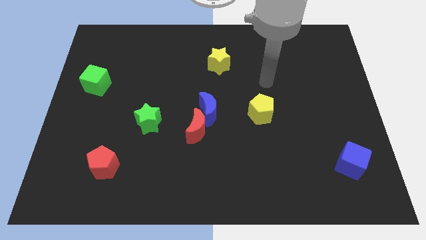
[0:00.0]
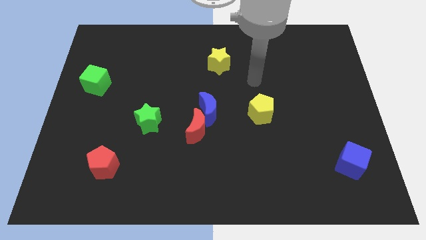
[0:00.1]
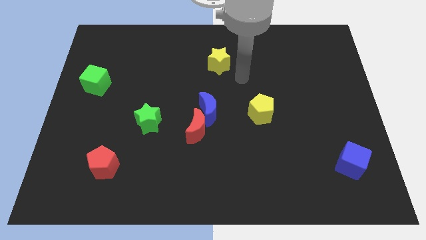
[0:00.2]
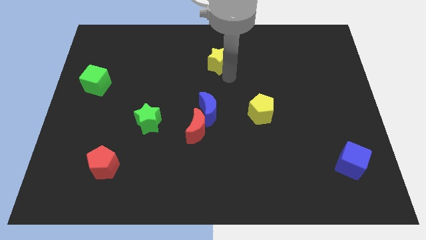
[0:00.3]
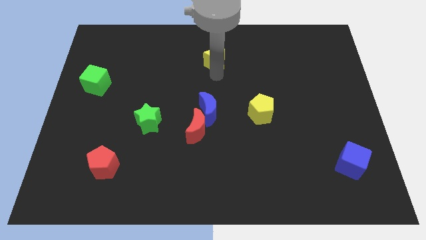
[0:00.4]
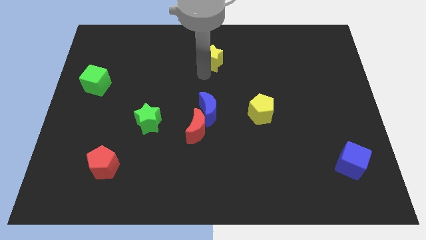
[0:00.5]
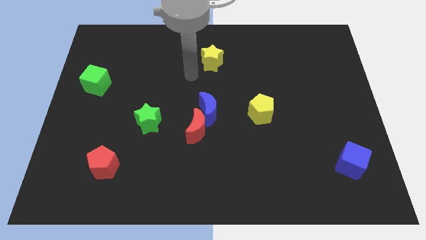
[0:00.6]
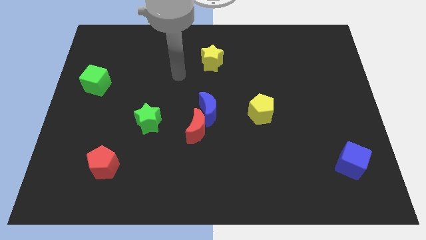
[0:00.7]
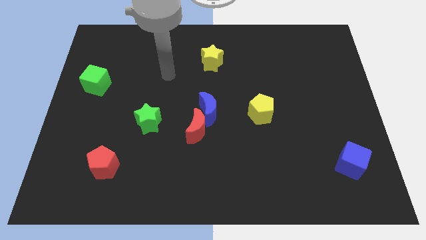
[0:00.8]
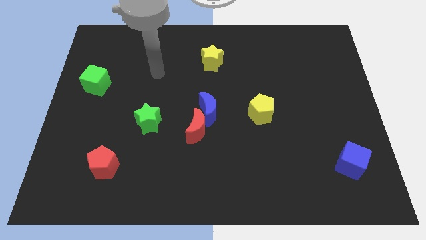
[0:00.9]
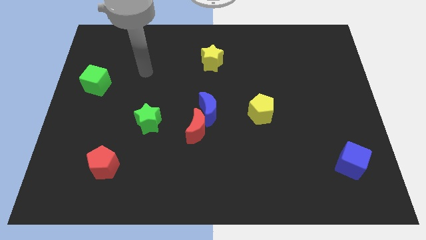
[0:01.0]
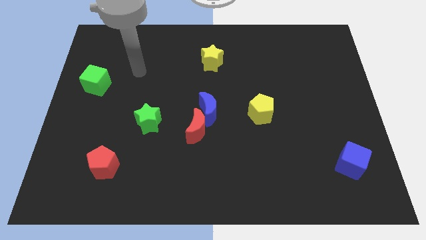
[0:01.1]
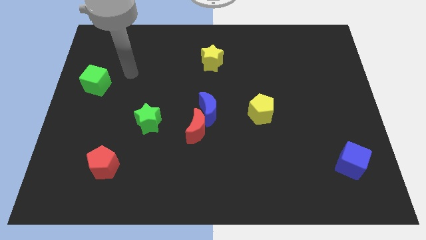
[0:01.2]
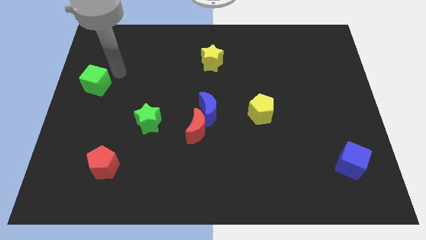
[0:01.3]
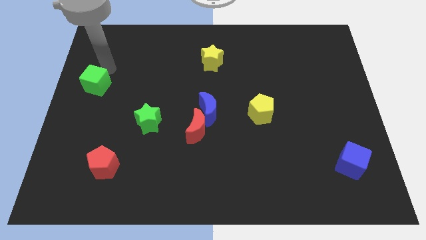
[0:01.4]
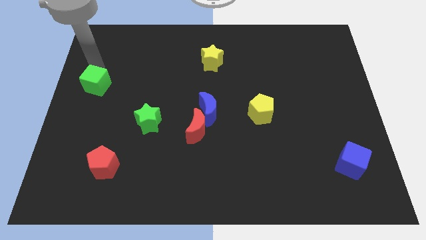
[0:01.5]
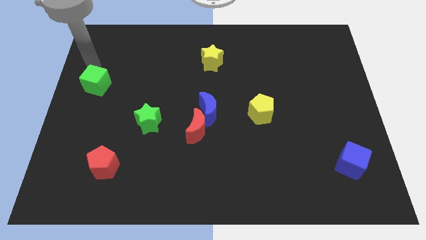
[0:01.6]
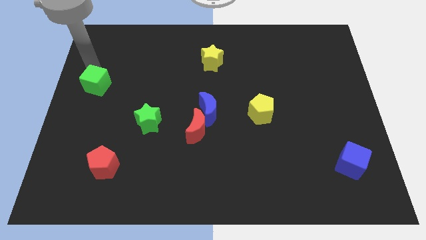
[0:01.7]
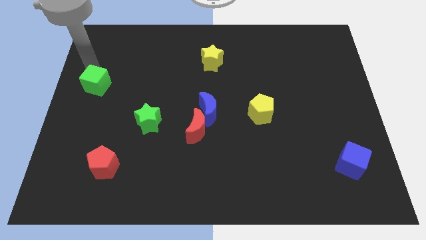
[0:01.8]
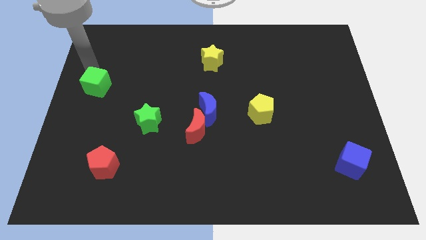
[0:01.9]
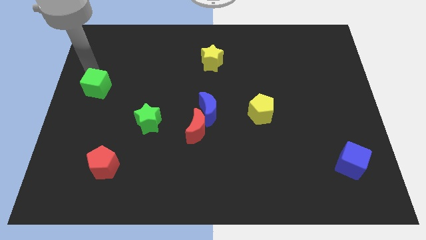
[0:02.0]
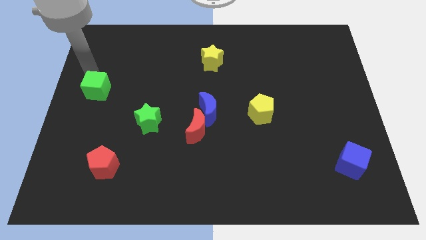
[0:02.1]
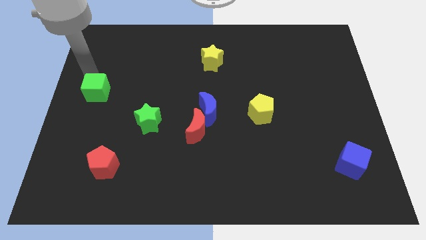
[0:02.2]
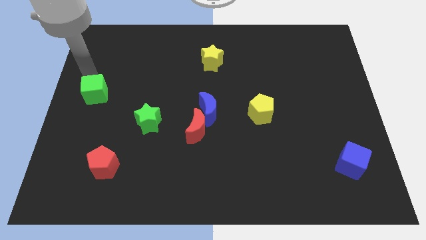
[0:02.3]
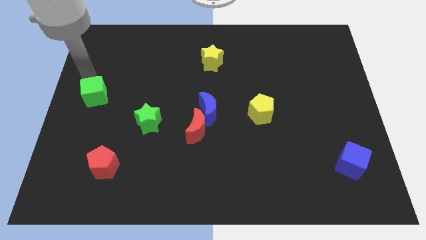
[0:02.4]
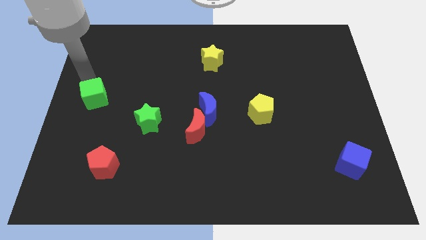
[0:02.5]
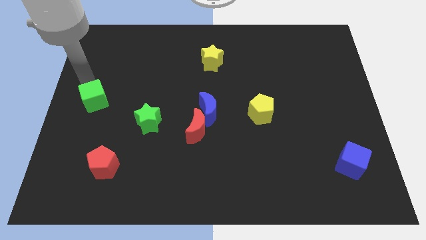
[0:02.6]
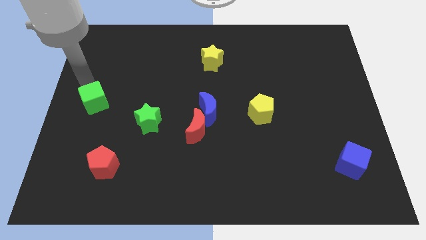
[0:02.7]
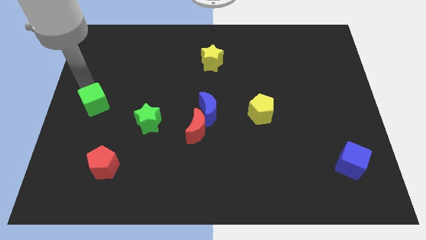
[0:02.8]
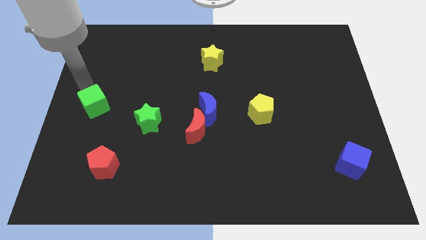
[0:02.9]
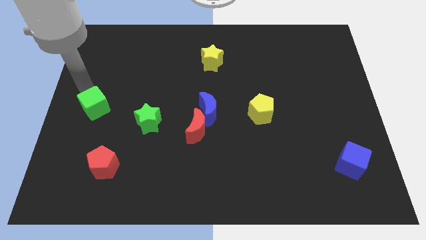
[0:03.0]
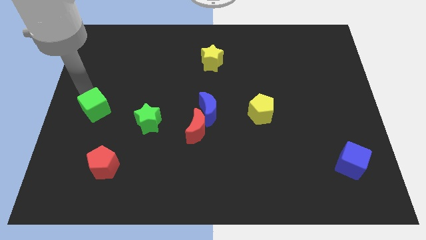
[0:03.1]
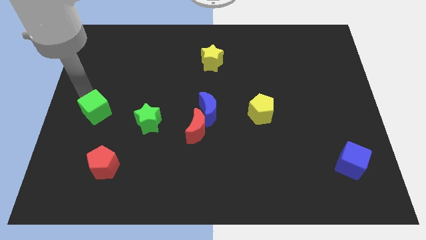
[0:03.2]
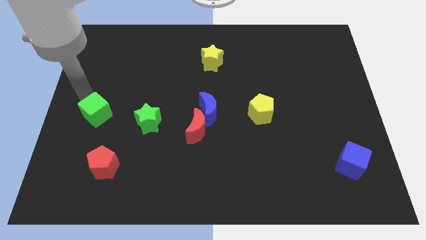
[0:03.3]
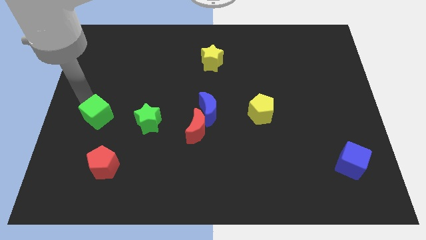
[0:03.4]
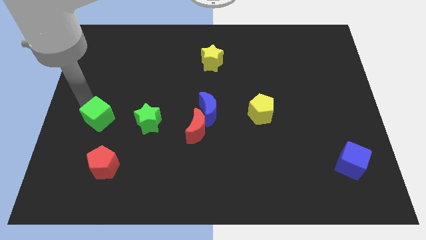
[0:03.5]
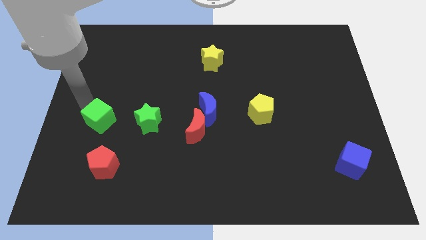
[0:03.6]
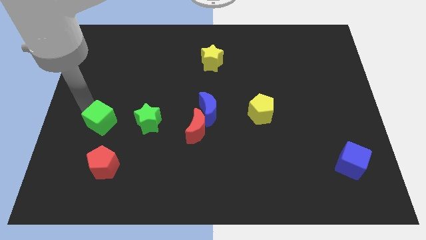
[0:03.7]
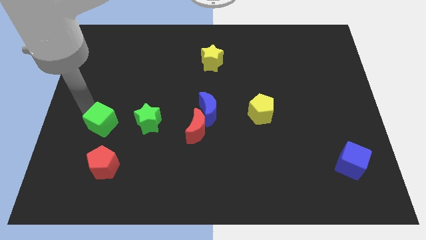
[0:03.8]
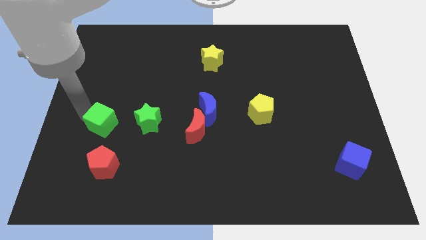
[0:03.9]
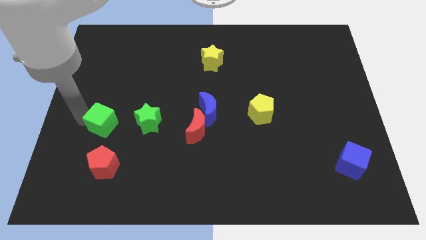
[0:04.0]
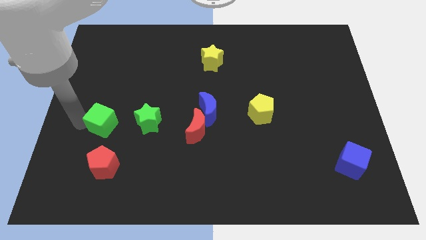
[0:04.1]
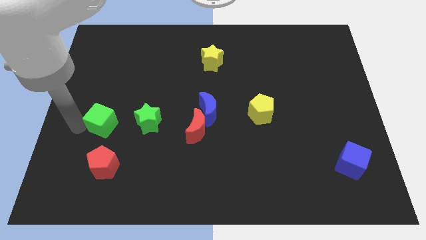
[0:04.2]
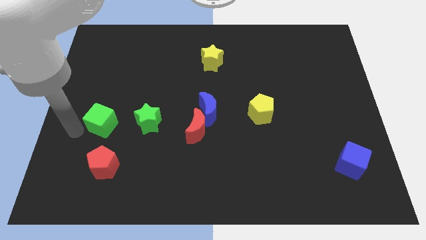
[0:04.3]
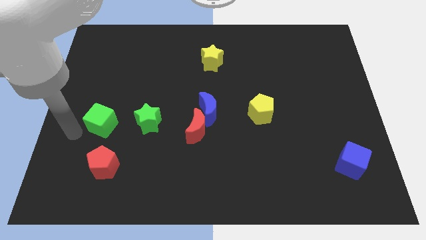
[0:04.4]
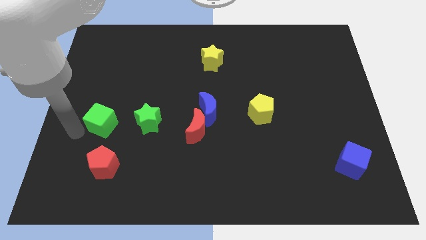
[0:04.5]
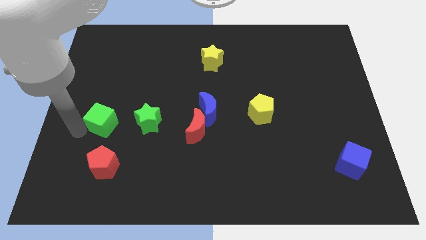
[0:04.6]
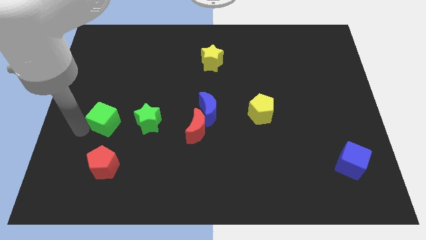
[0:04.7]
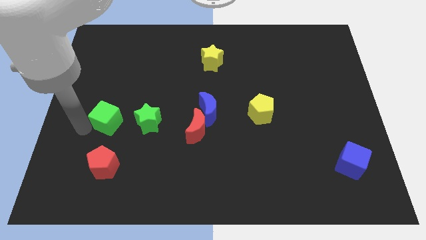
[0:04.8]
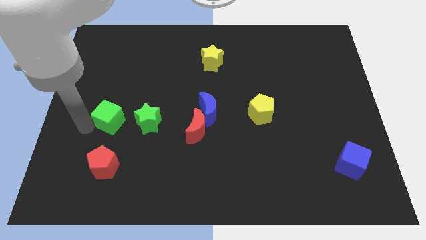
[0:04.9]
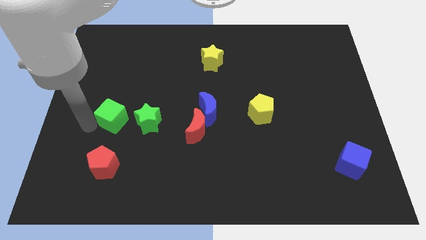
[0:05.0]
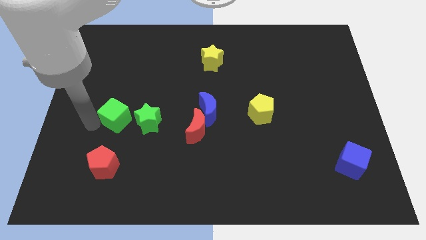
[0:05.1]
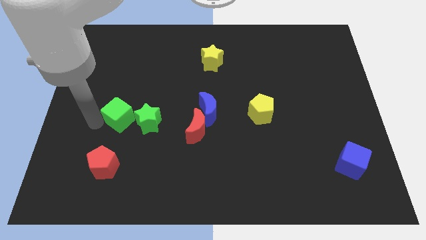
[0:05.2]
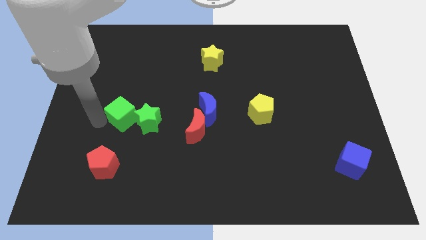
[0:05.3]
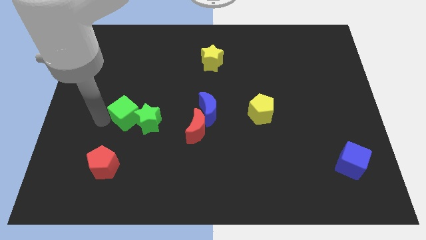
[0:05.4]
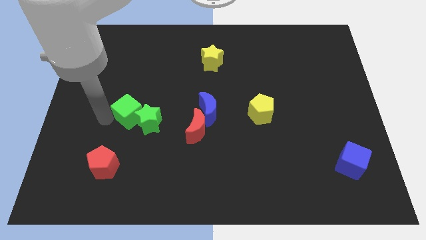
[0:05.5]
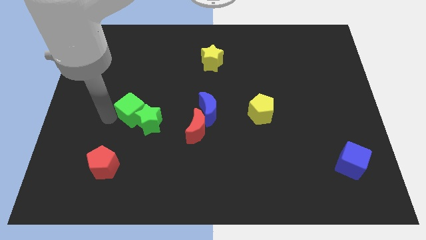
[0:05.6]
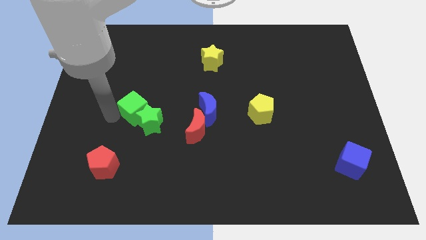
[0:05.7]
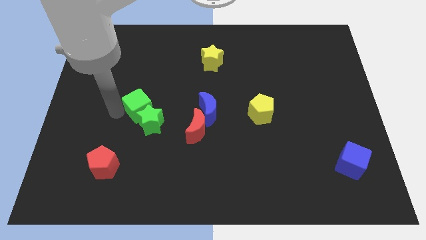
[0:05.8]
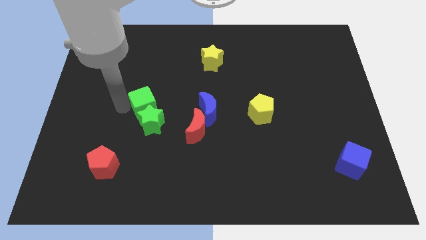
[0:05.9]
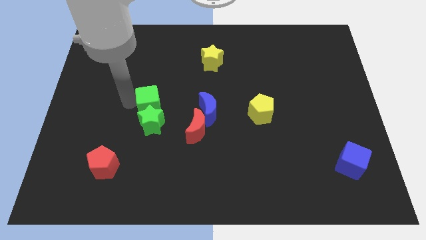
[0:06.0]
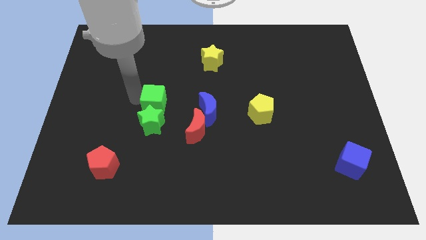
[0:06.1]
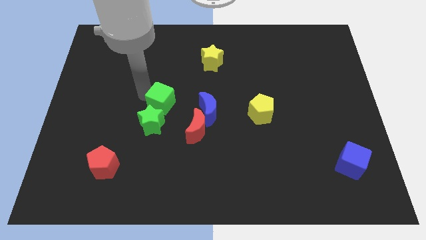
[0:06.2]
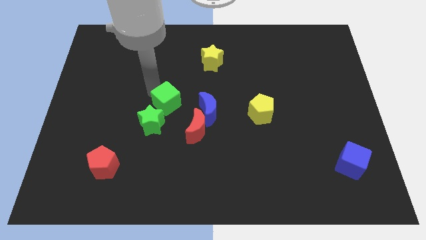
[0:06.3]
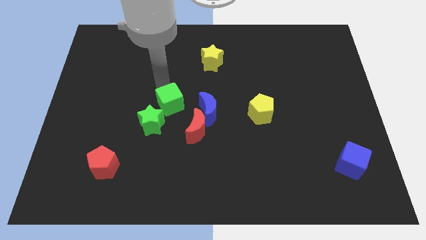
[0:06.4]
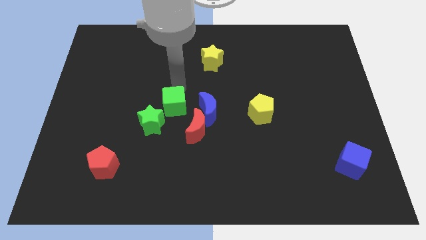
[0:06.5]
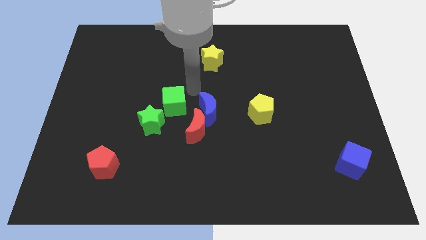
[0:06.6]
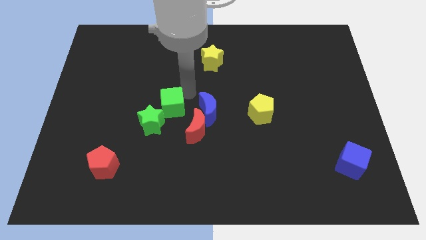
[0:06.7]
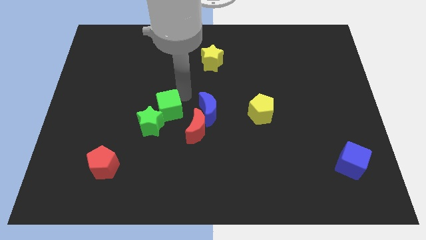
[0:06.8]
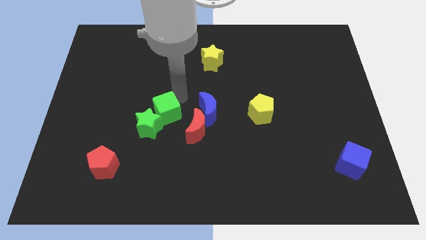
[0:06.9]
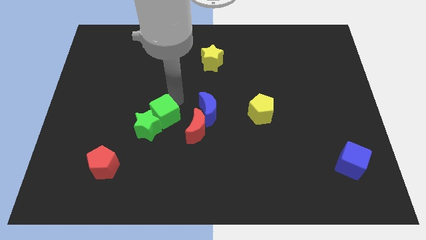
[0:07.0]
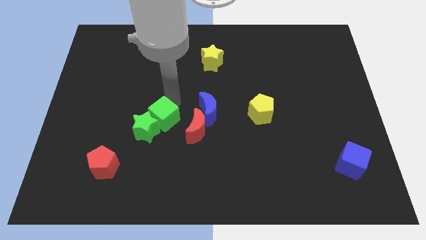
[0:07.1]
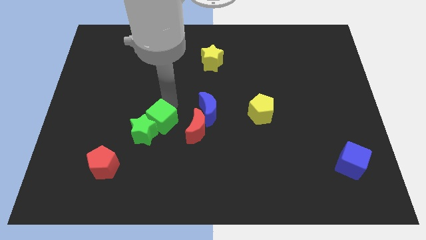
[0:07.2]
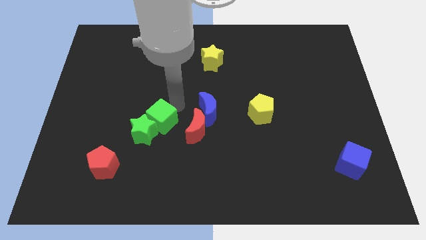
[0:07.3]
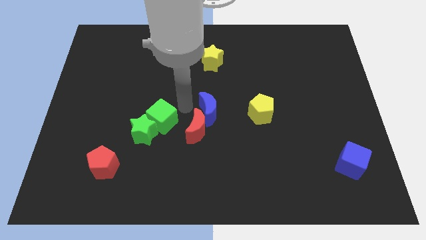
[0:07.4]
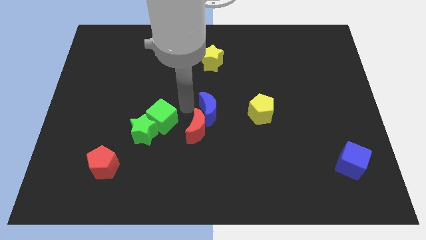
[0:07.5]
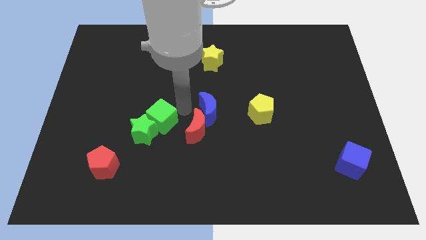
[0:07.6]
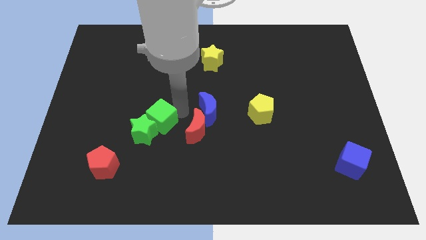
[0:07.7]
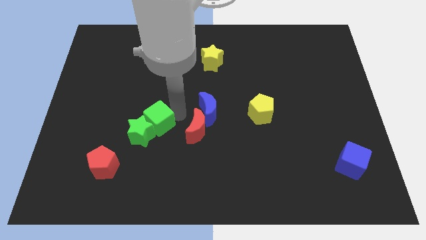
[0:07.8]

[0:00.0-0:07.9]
move the green cube diagonally down and to the right
